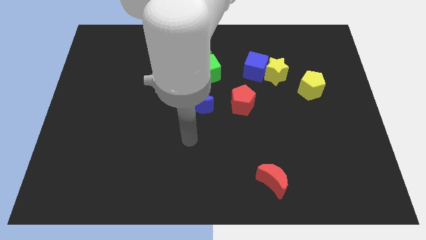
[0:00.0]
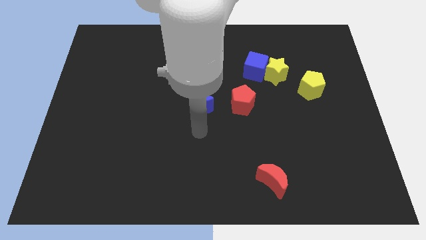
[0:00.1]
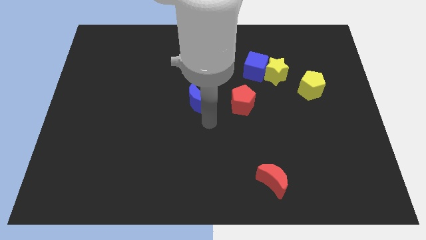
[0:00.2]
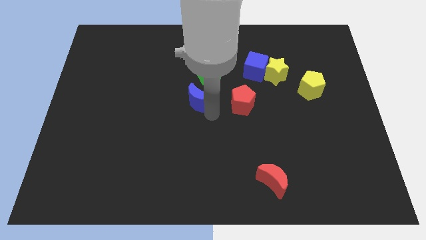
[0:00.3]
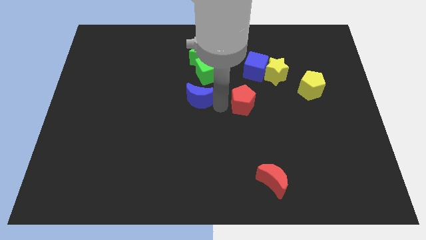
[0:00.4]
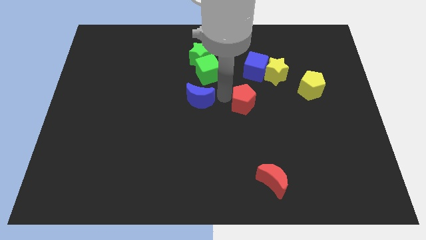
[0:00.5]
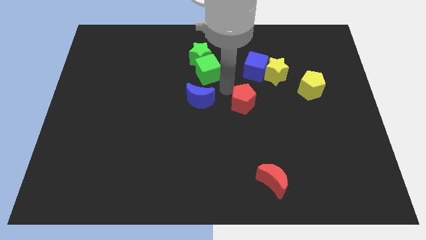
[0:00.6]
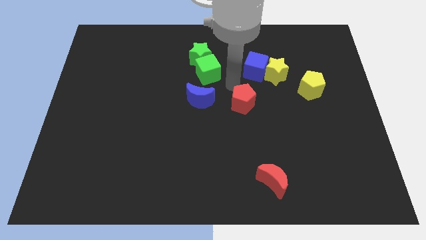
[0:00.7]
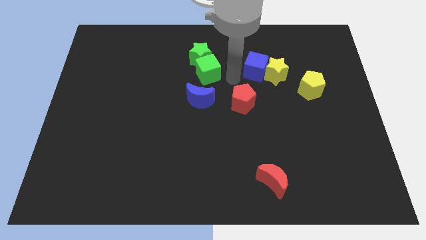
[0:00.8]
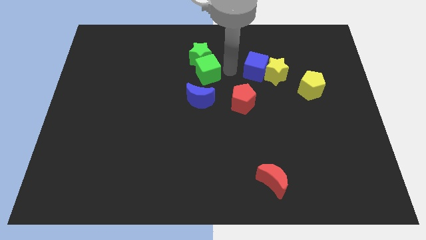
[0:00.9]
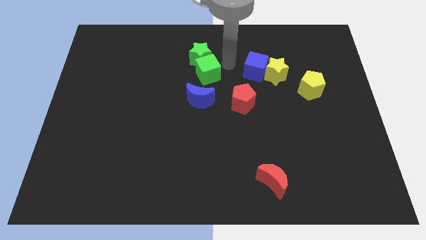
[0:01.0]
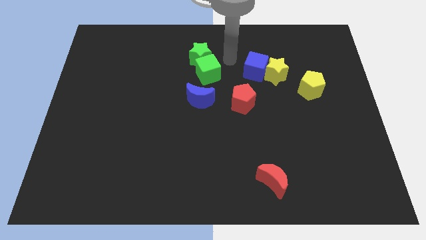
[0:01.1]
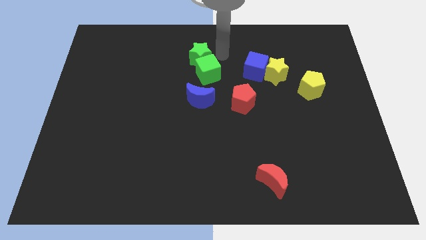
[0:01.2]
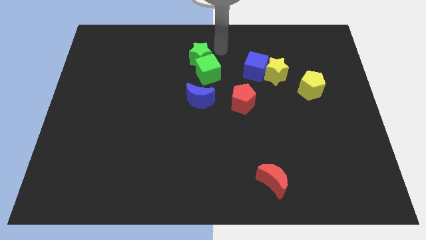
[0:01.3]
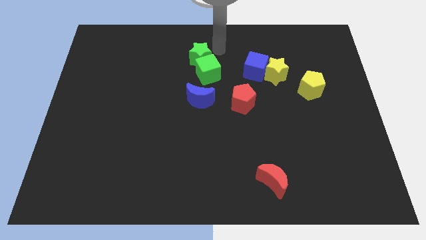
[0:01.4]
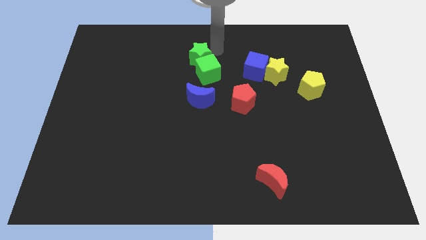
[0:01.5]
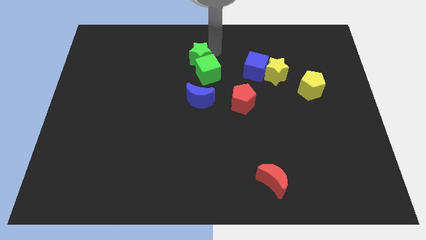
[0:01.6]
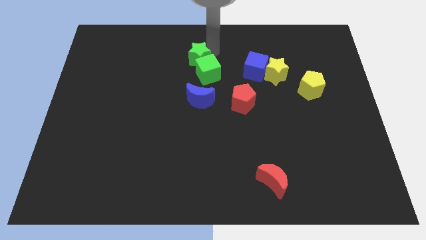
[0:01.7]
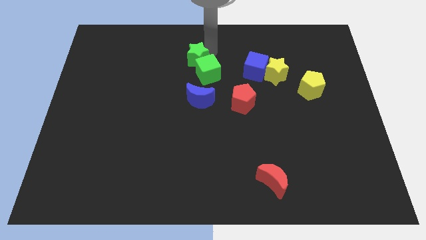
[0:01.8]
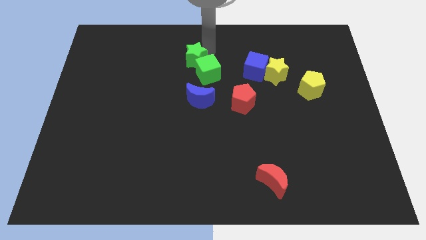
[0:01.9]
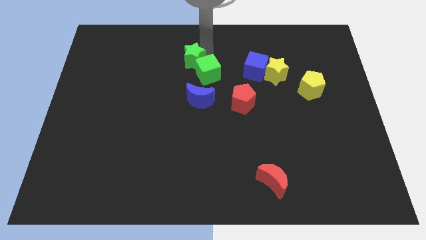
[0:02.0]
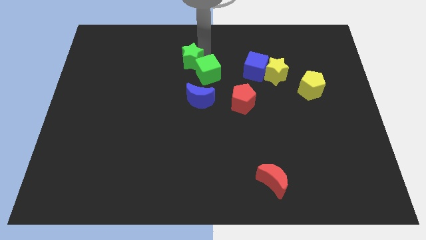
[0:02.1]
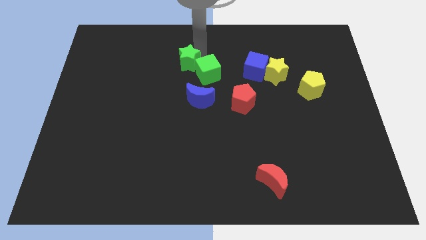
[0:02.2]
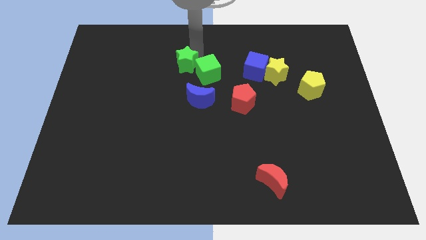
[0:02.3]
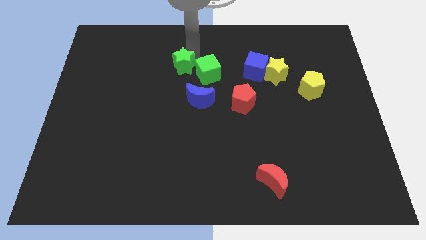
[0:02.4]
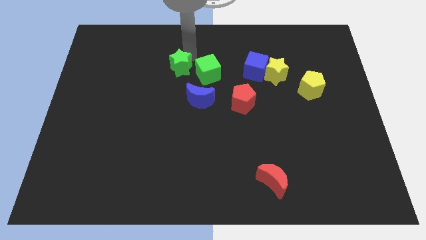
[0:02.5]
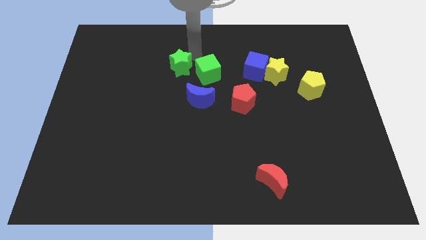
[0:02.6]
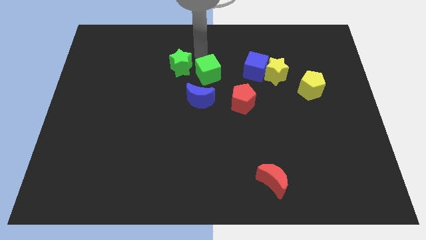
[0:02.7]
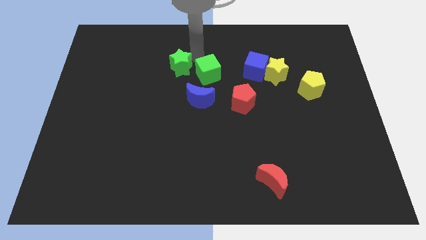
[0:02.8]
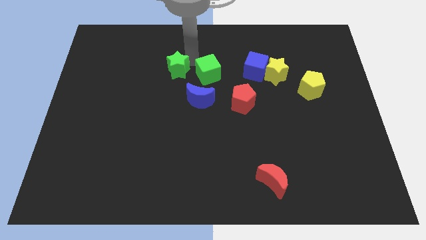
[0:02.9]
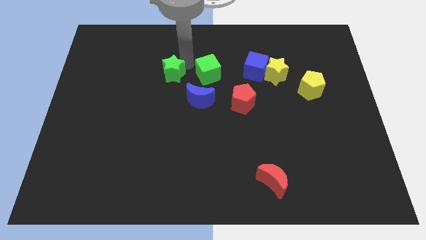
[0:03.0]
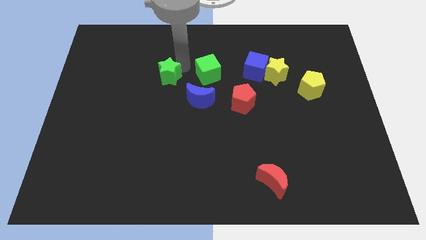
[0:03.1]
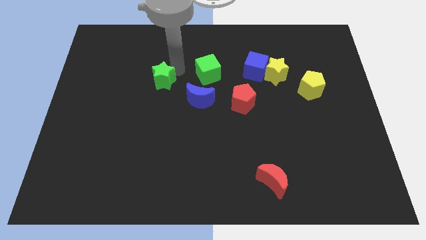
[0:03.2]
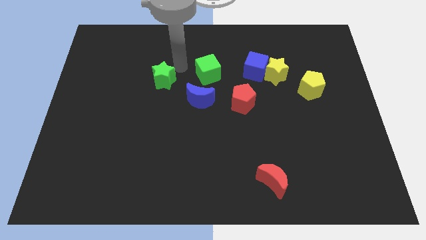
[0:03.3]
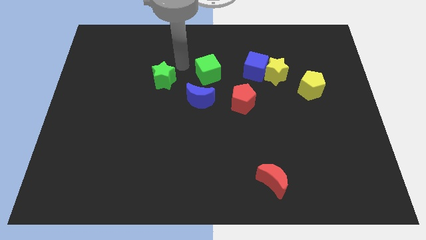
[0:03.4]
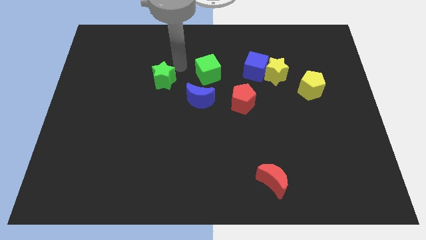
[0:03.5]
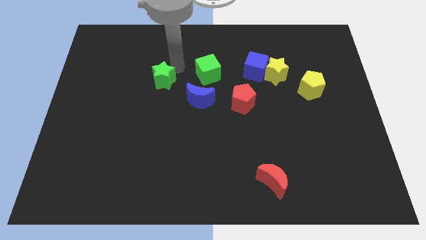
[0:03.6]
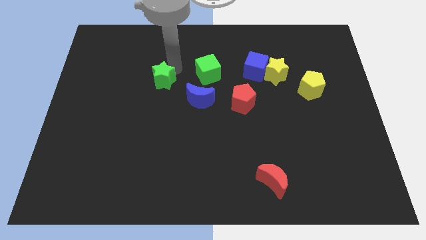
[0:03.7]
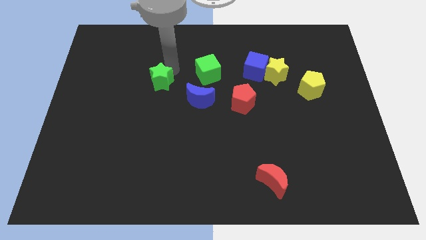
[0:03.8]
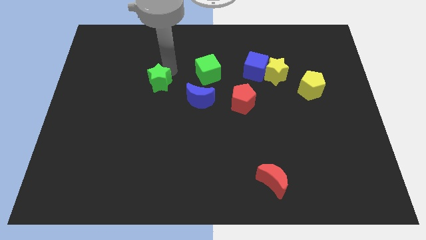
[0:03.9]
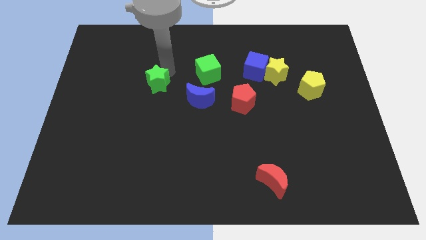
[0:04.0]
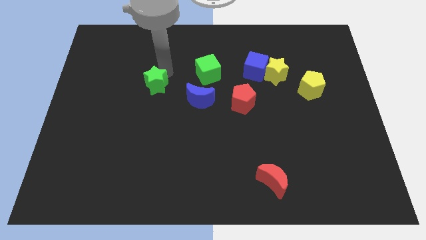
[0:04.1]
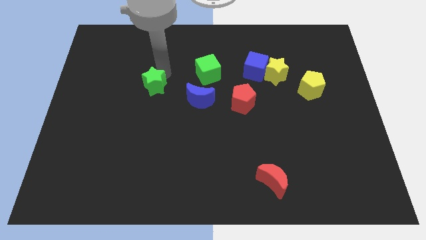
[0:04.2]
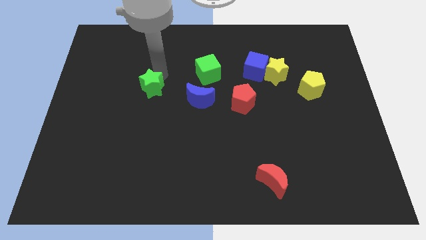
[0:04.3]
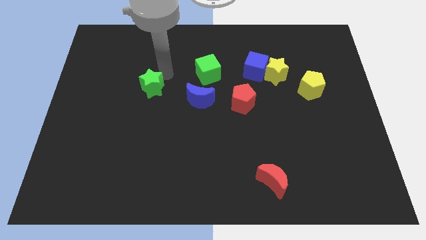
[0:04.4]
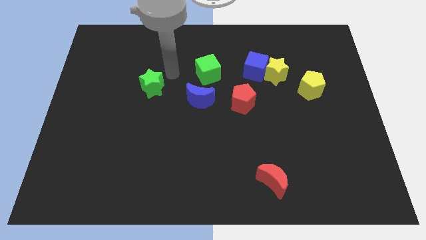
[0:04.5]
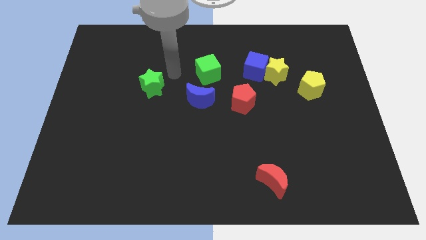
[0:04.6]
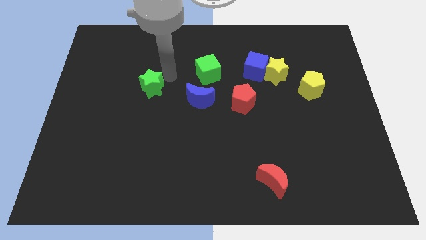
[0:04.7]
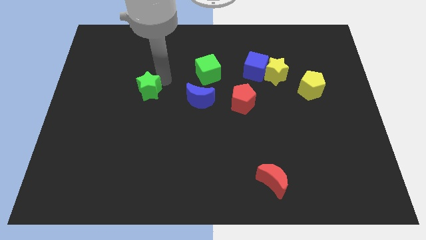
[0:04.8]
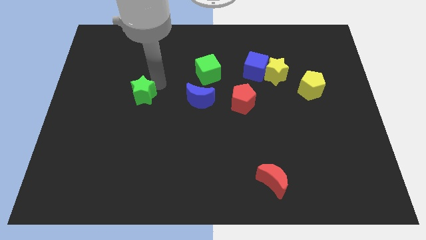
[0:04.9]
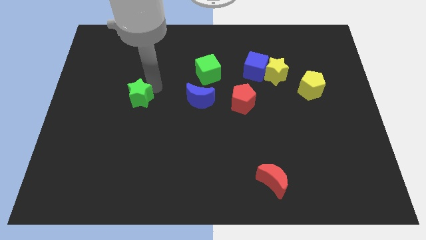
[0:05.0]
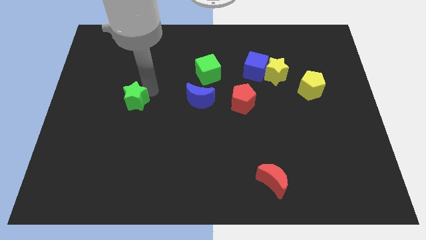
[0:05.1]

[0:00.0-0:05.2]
move the green star down and then to the left

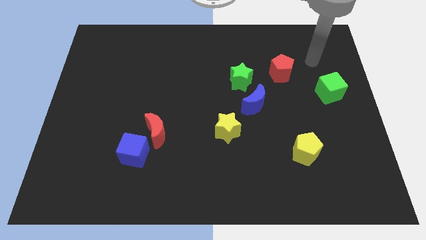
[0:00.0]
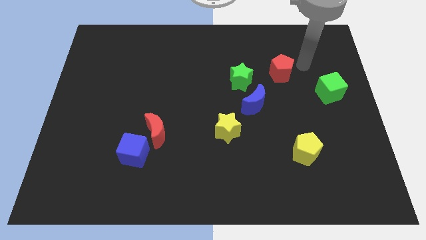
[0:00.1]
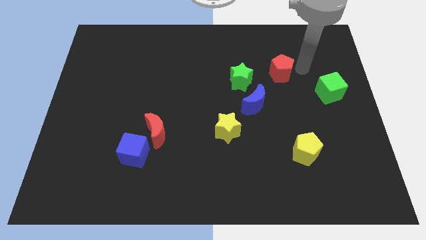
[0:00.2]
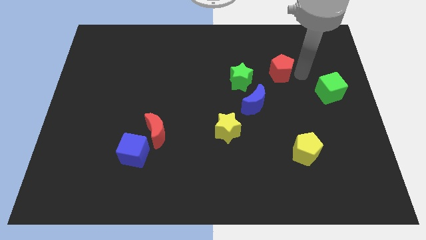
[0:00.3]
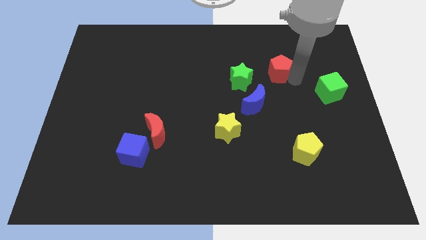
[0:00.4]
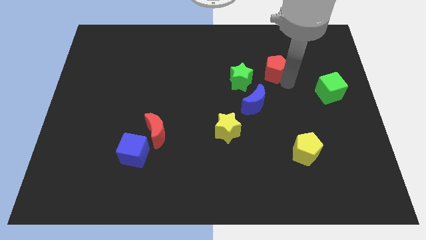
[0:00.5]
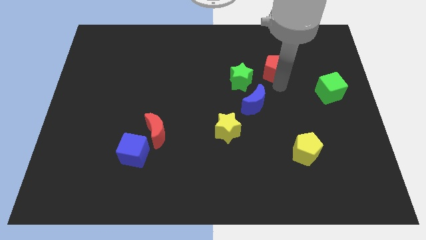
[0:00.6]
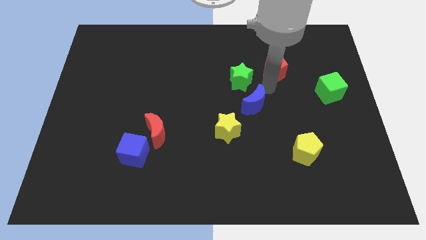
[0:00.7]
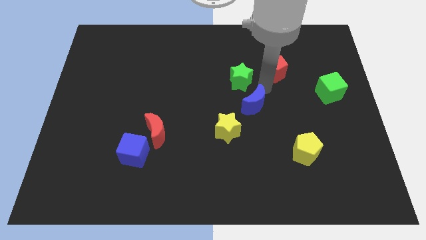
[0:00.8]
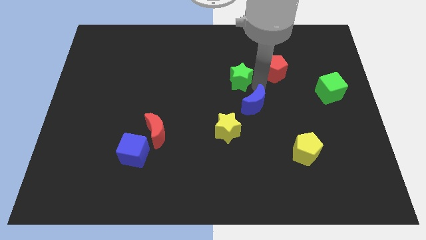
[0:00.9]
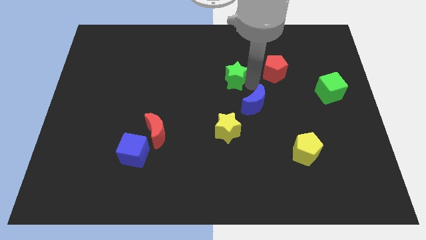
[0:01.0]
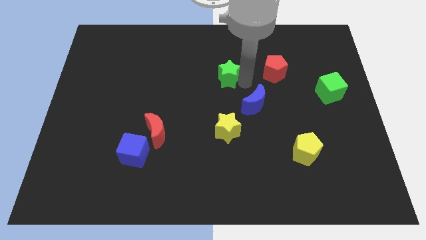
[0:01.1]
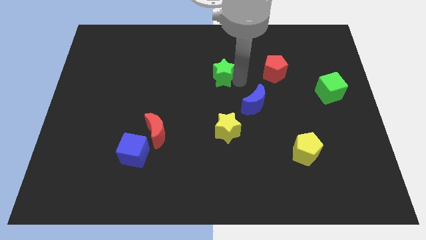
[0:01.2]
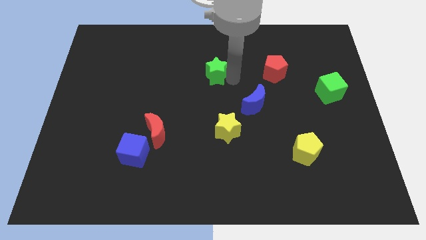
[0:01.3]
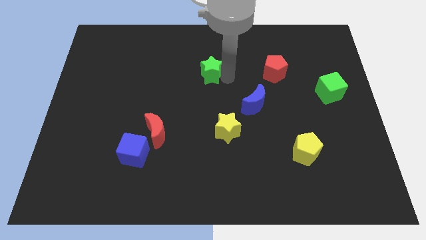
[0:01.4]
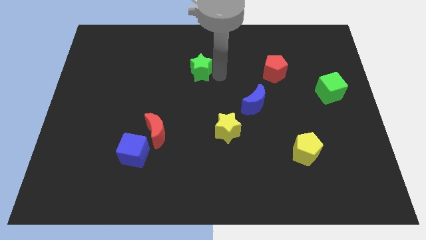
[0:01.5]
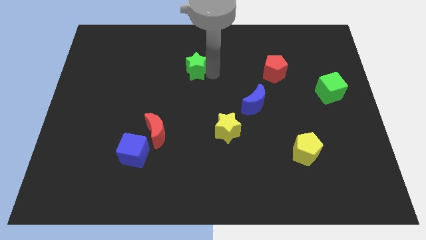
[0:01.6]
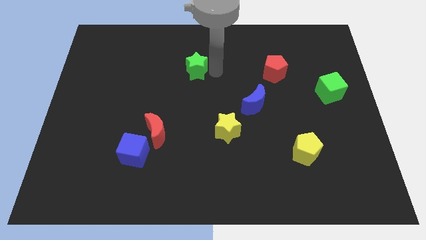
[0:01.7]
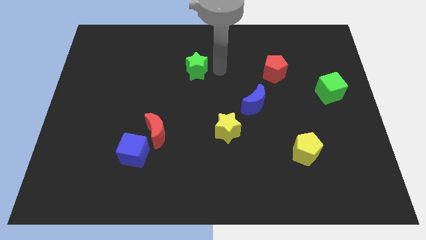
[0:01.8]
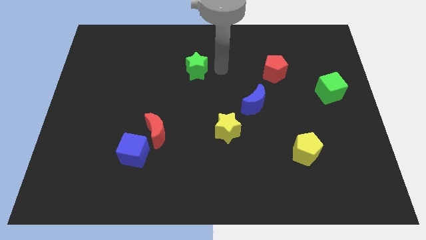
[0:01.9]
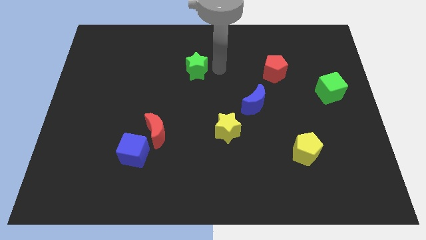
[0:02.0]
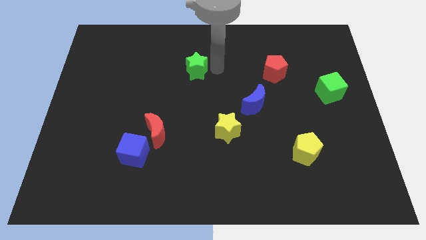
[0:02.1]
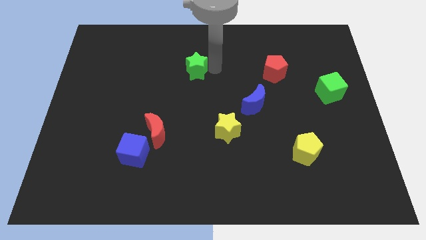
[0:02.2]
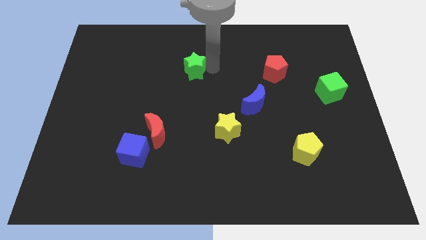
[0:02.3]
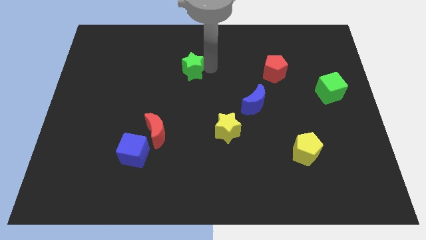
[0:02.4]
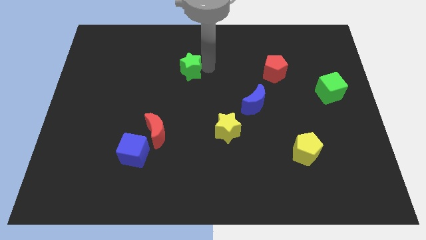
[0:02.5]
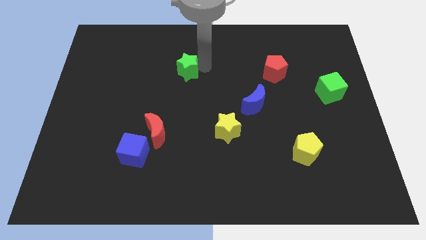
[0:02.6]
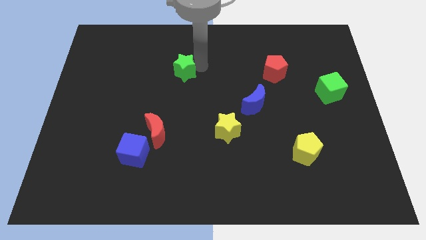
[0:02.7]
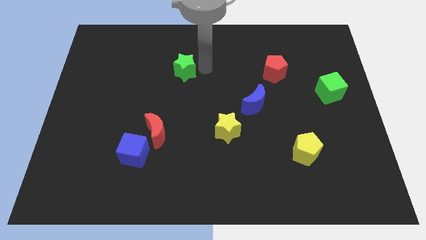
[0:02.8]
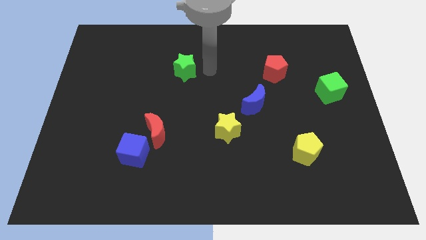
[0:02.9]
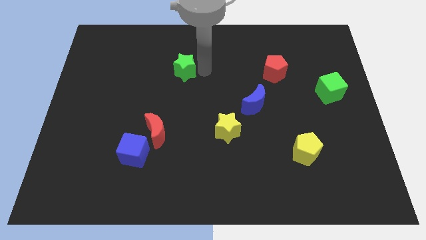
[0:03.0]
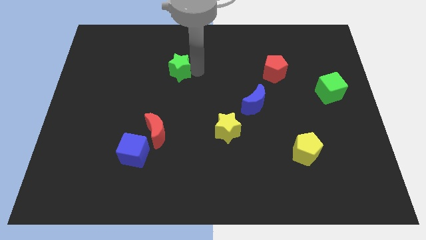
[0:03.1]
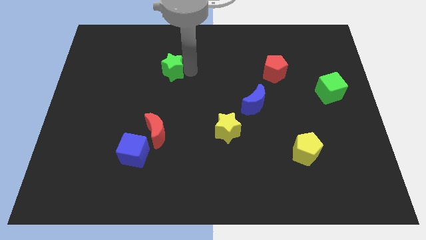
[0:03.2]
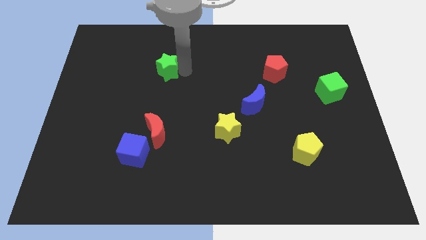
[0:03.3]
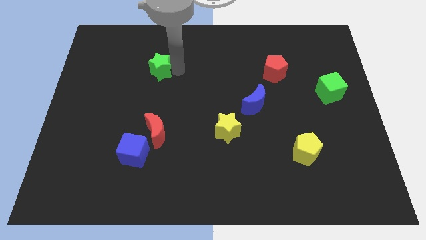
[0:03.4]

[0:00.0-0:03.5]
move the green star left
